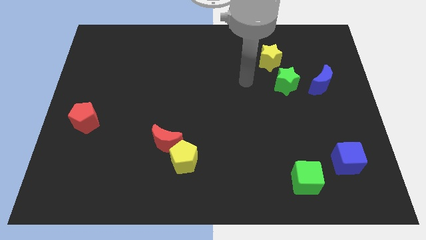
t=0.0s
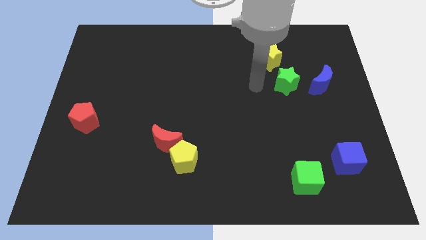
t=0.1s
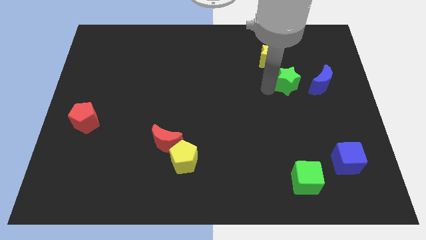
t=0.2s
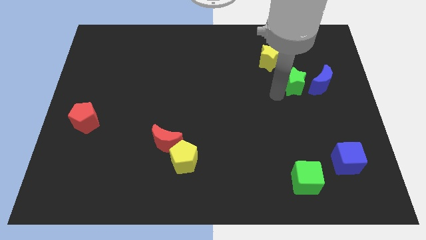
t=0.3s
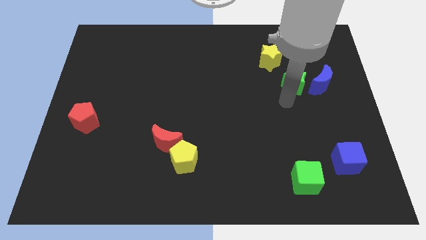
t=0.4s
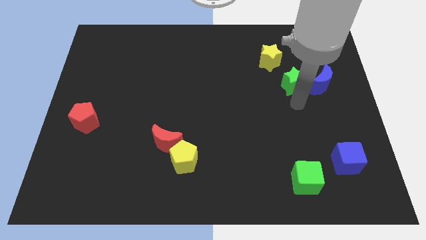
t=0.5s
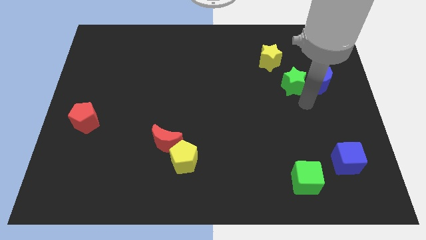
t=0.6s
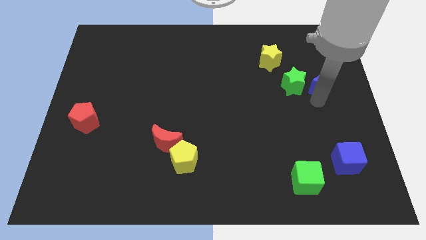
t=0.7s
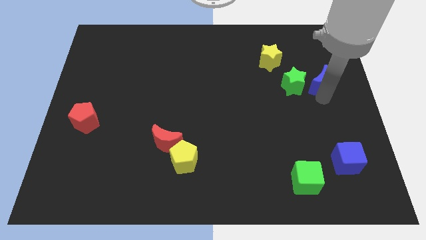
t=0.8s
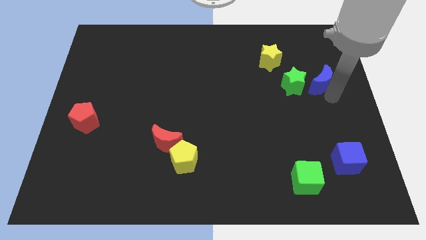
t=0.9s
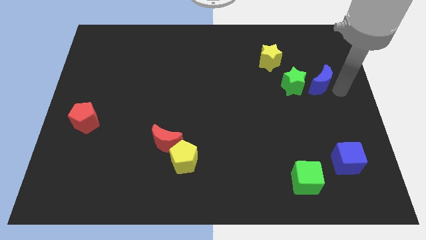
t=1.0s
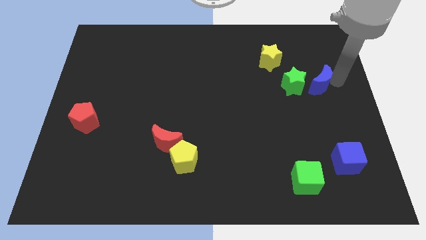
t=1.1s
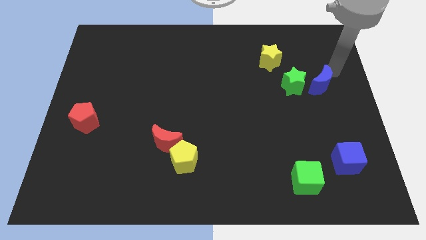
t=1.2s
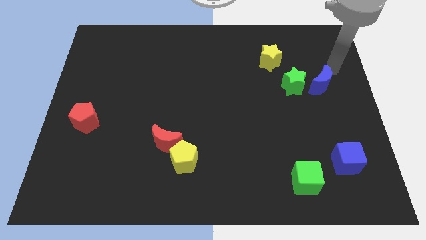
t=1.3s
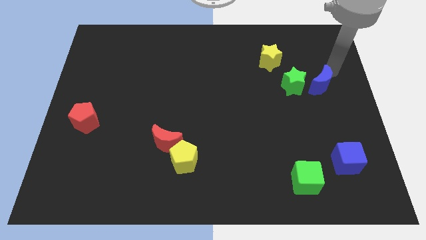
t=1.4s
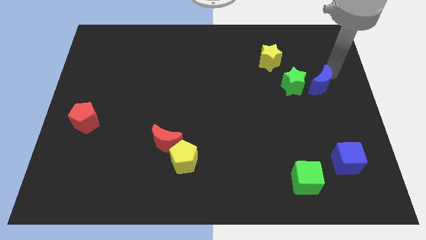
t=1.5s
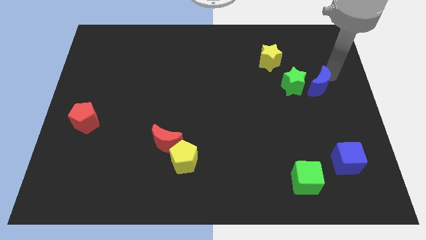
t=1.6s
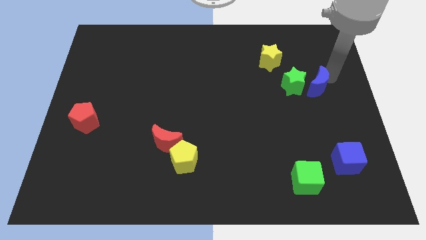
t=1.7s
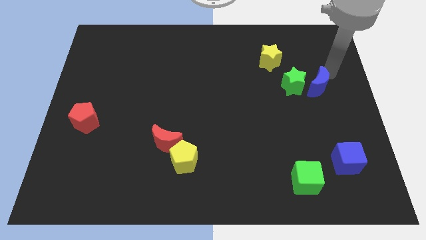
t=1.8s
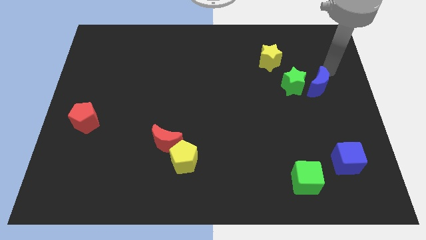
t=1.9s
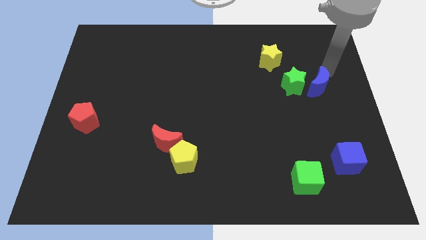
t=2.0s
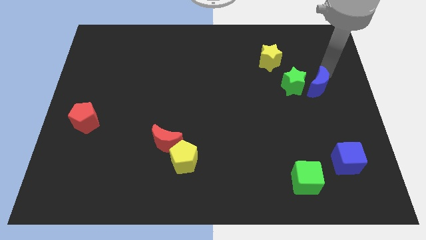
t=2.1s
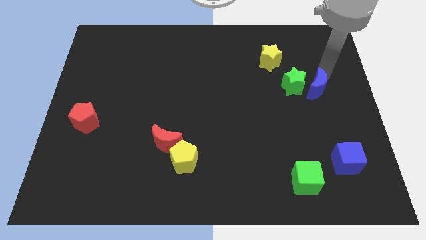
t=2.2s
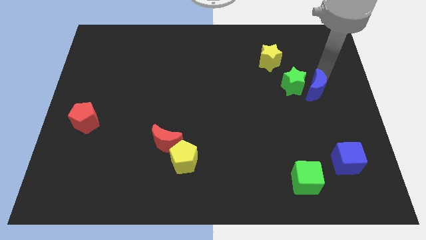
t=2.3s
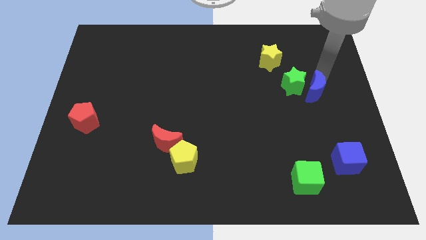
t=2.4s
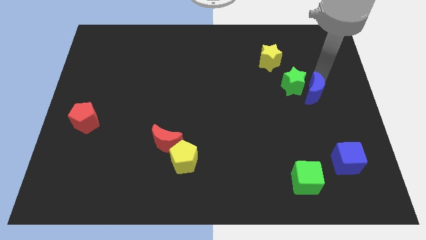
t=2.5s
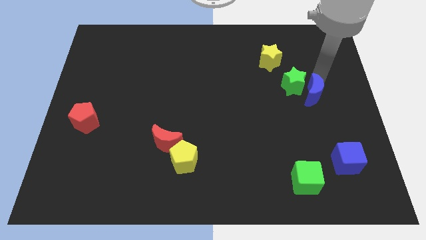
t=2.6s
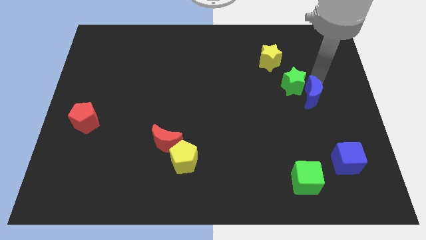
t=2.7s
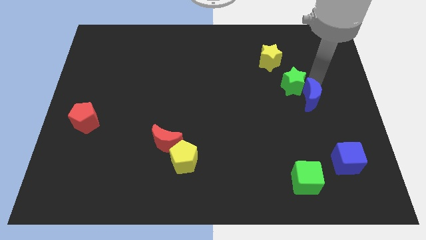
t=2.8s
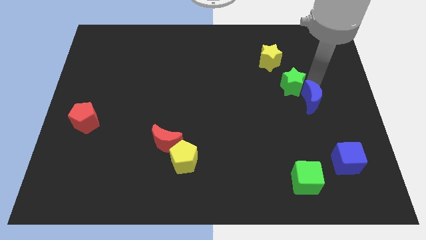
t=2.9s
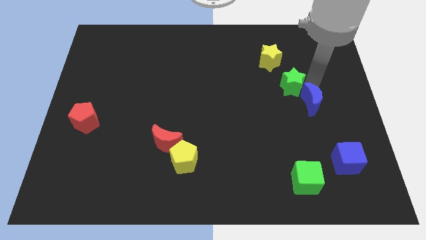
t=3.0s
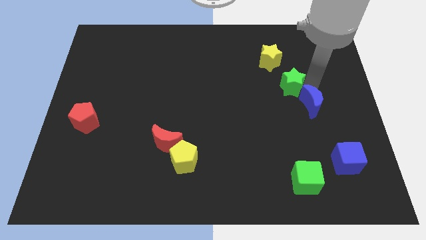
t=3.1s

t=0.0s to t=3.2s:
slightly move the blue moon down and to the left diagonally

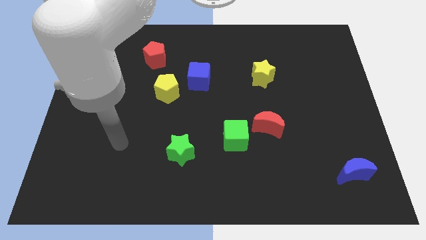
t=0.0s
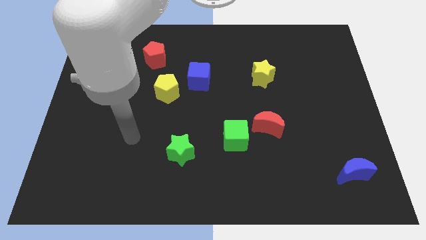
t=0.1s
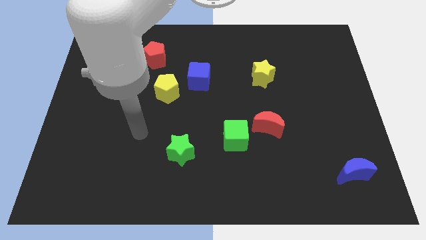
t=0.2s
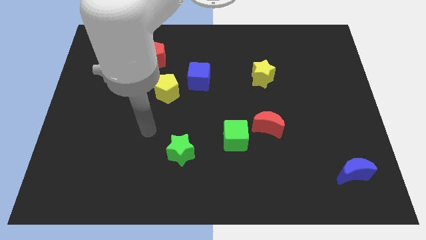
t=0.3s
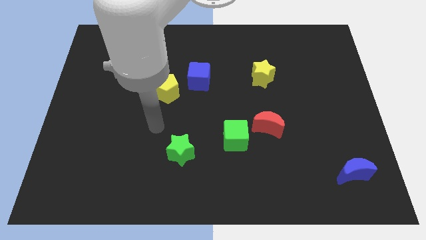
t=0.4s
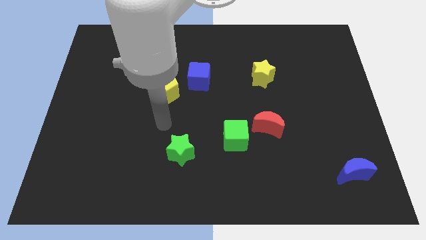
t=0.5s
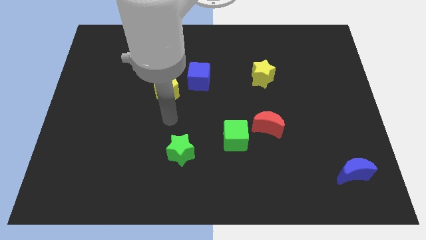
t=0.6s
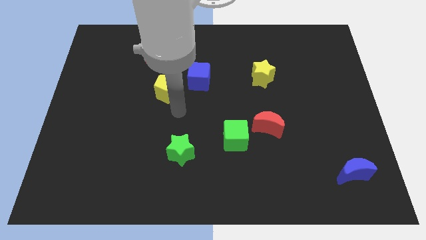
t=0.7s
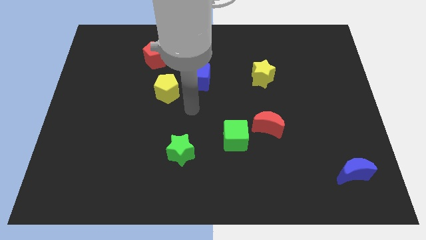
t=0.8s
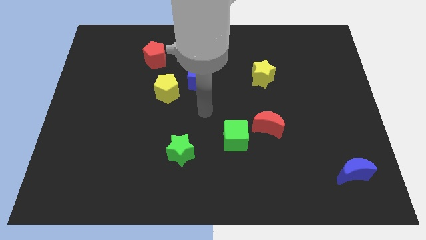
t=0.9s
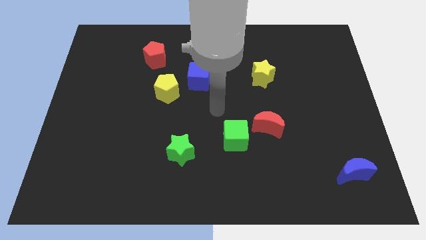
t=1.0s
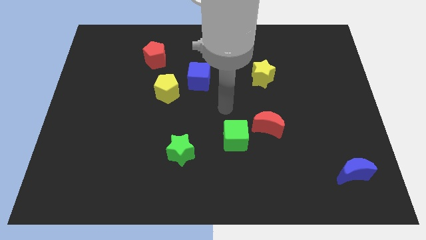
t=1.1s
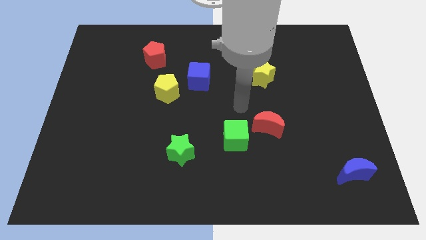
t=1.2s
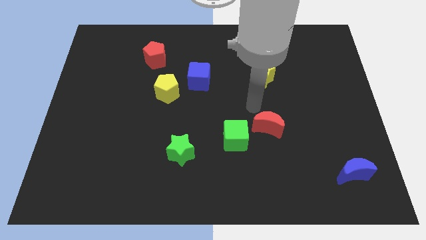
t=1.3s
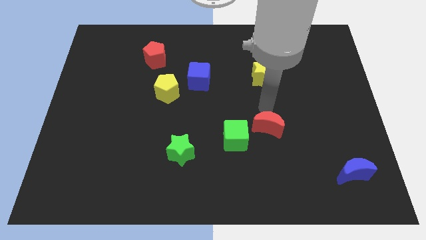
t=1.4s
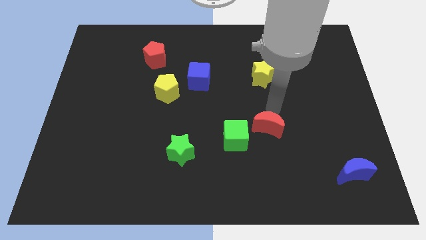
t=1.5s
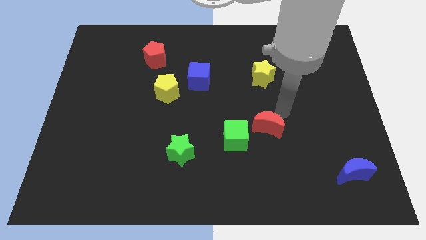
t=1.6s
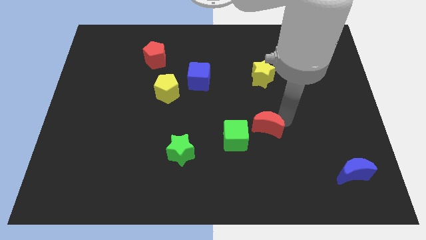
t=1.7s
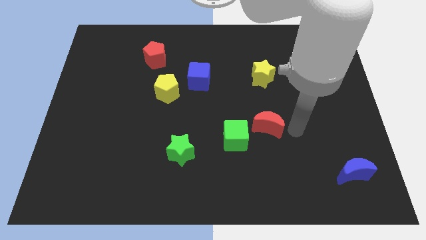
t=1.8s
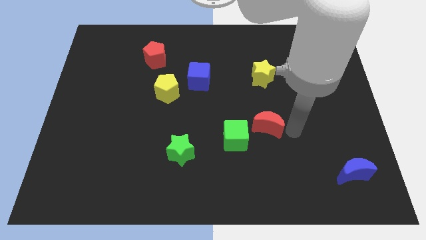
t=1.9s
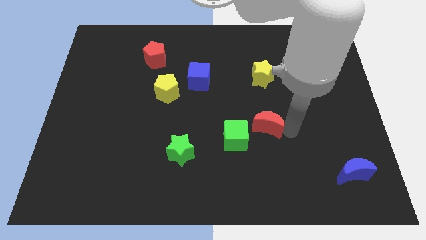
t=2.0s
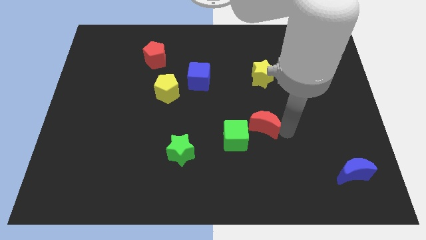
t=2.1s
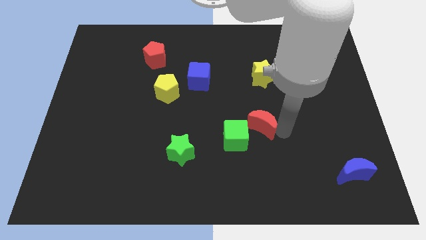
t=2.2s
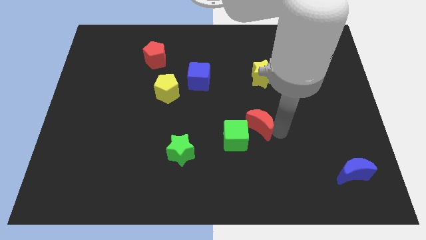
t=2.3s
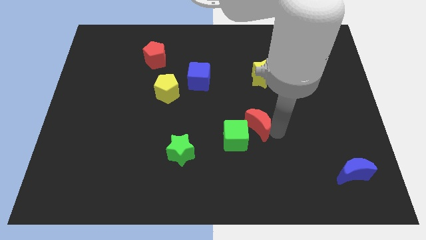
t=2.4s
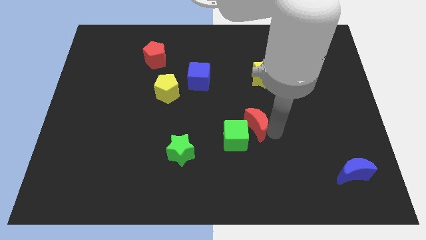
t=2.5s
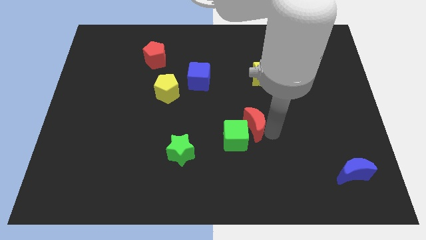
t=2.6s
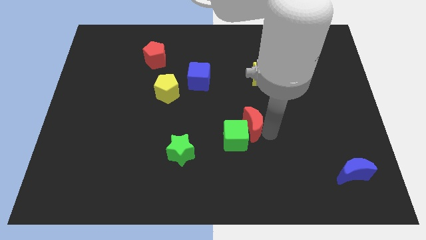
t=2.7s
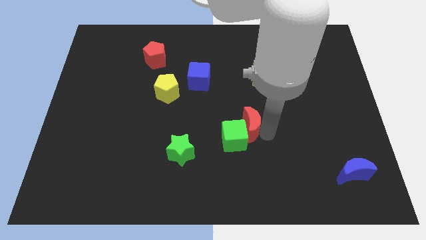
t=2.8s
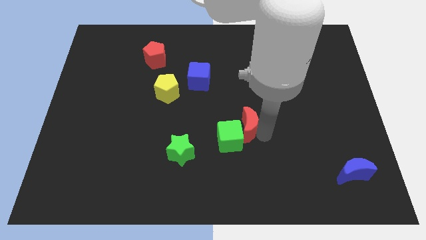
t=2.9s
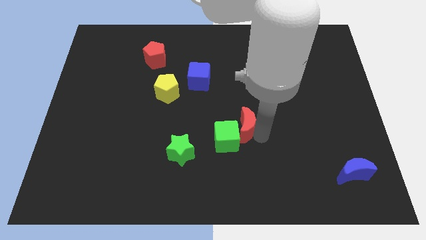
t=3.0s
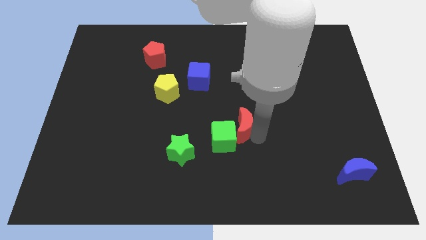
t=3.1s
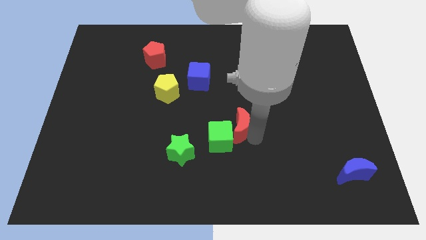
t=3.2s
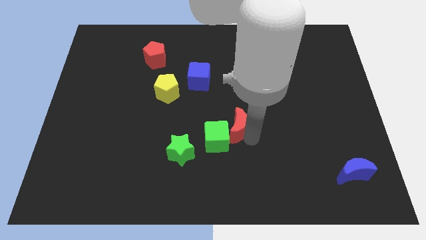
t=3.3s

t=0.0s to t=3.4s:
push the red moon a little left

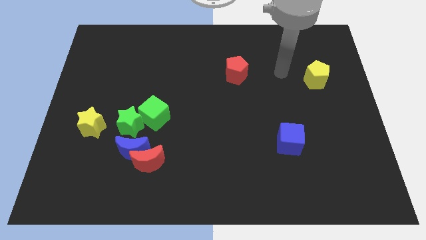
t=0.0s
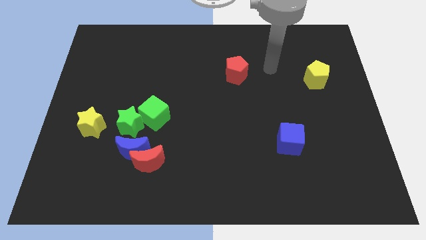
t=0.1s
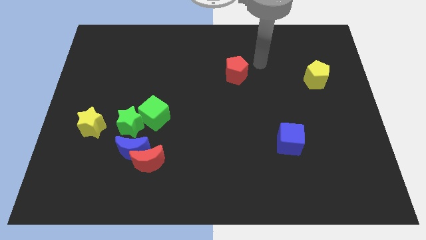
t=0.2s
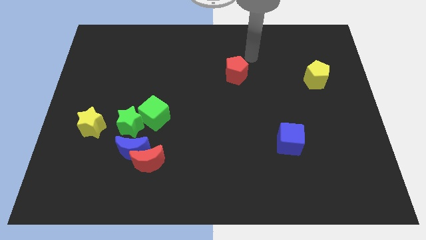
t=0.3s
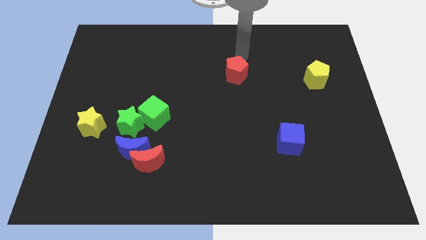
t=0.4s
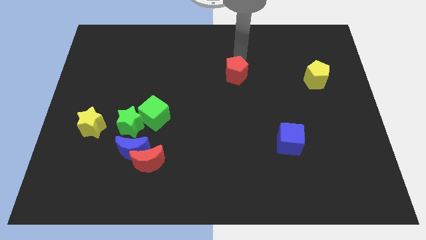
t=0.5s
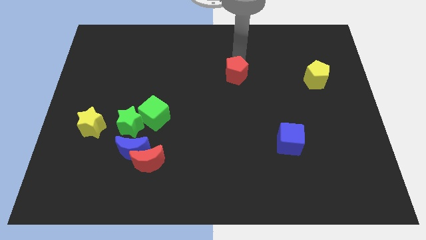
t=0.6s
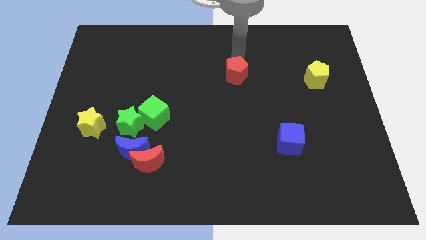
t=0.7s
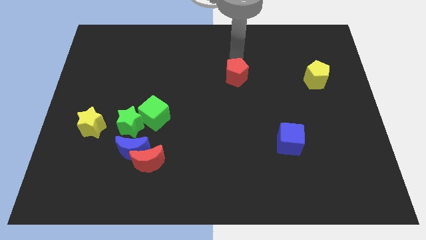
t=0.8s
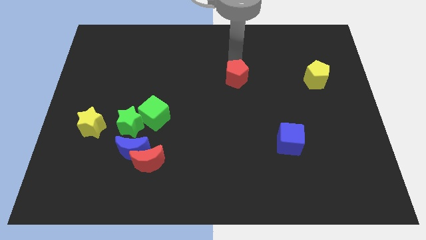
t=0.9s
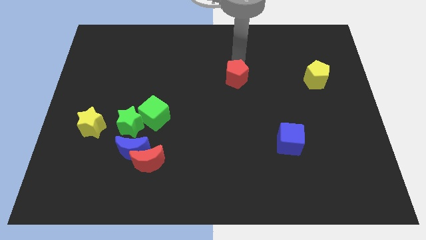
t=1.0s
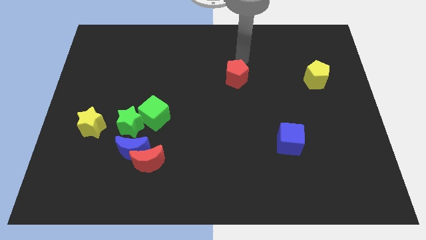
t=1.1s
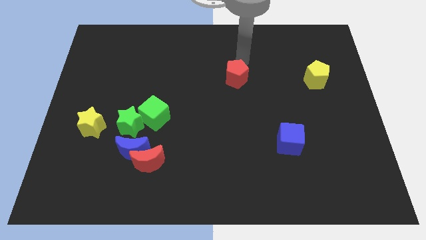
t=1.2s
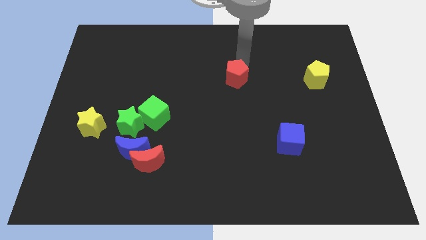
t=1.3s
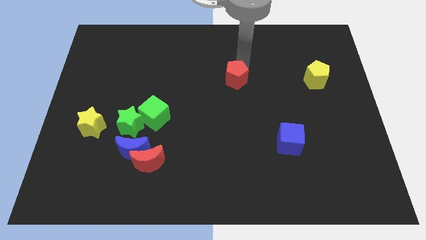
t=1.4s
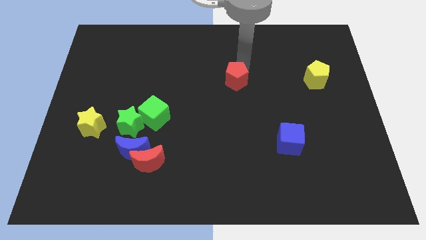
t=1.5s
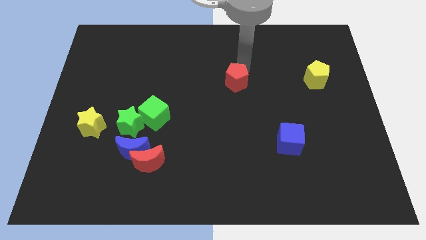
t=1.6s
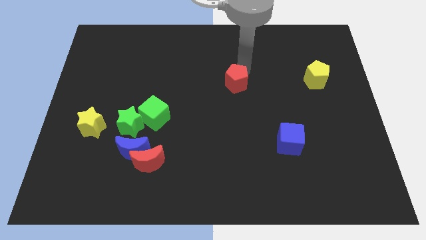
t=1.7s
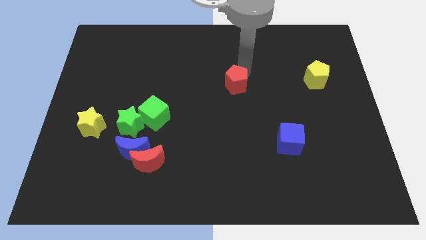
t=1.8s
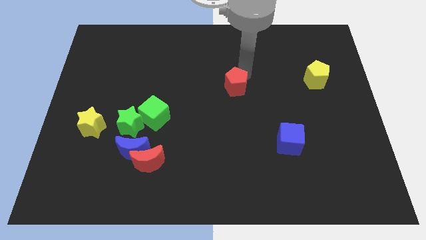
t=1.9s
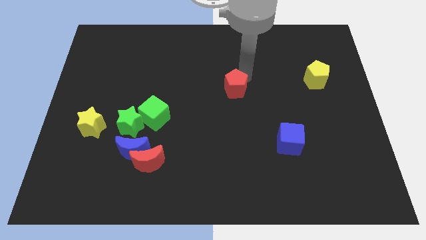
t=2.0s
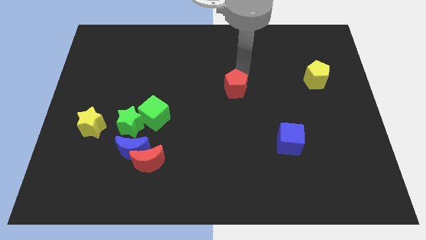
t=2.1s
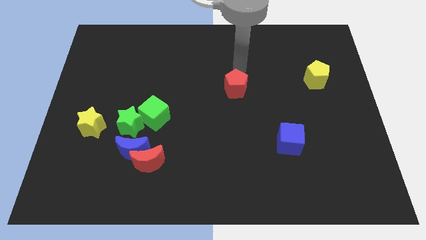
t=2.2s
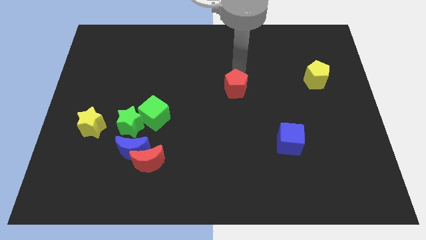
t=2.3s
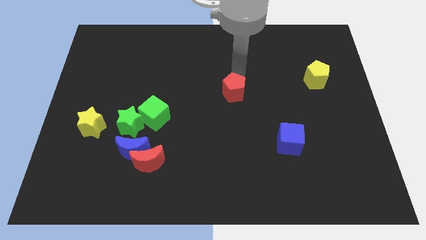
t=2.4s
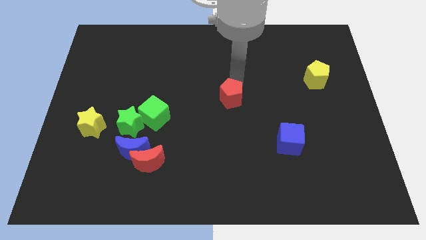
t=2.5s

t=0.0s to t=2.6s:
slide the red pentagon a little down
